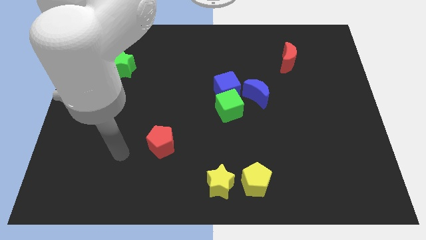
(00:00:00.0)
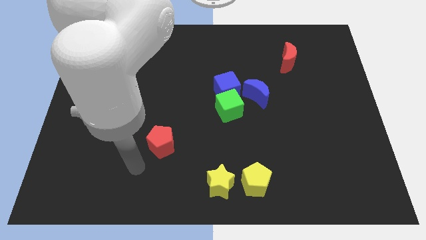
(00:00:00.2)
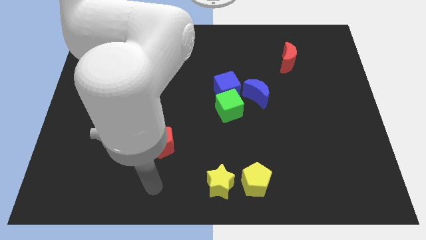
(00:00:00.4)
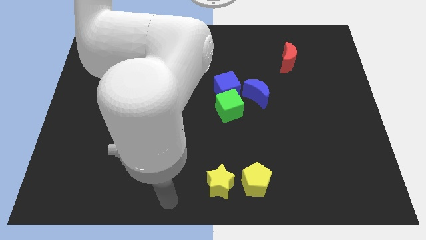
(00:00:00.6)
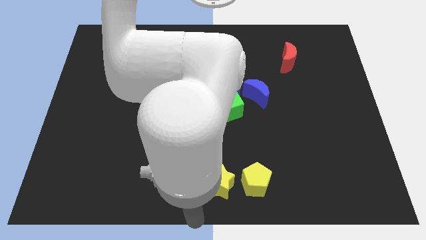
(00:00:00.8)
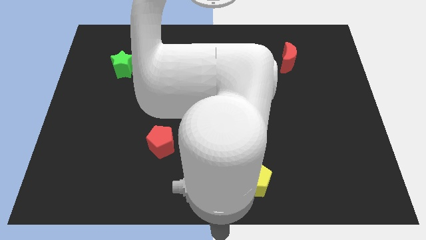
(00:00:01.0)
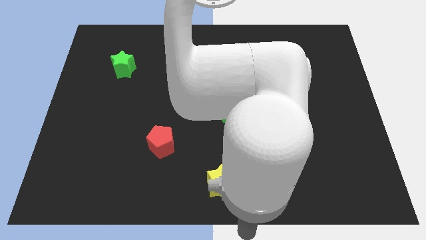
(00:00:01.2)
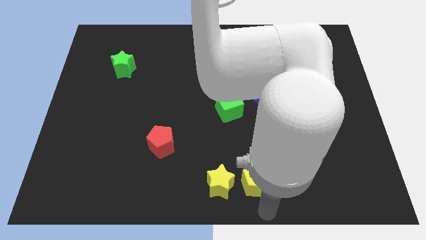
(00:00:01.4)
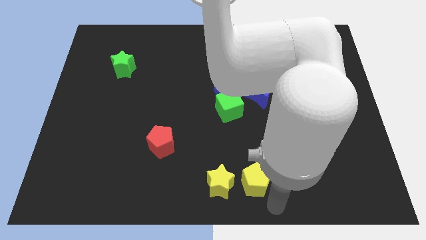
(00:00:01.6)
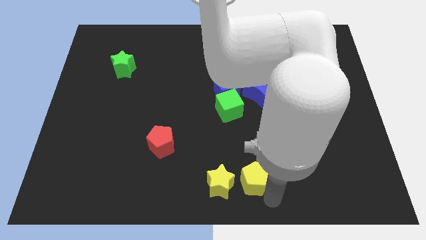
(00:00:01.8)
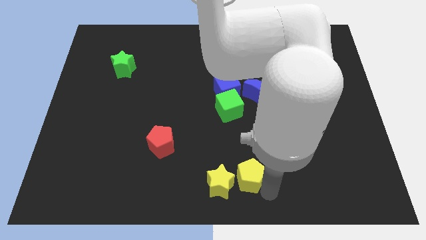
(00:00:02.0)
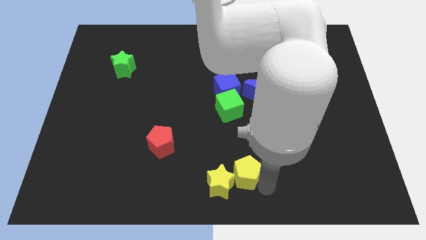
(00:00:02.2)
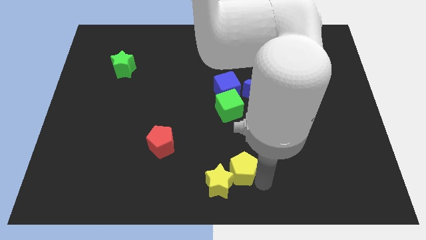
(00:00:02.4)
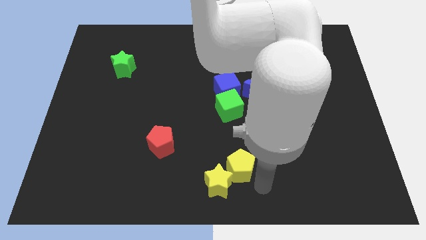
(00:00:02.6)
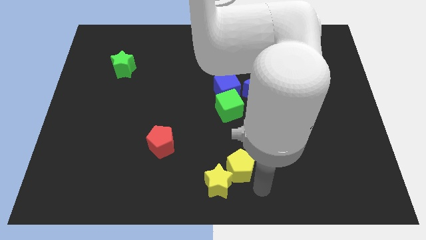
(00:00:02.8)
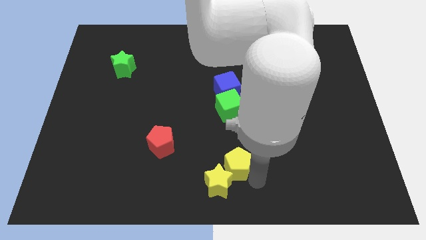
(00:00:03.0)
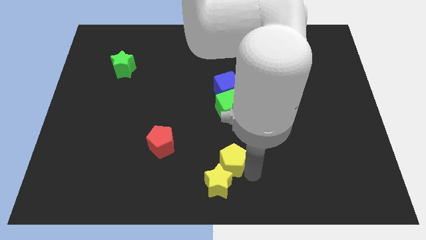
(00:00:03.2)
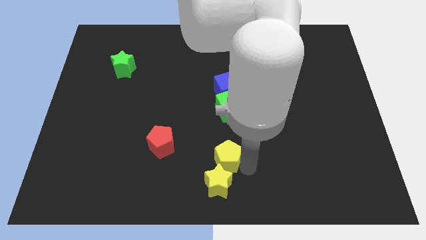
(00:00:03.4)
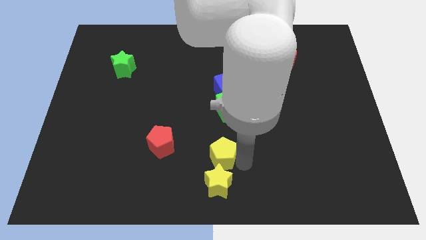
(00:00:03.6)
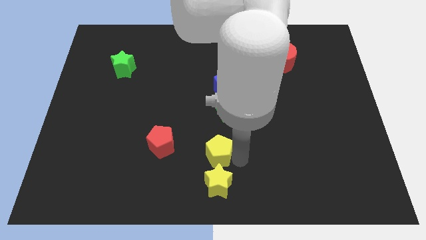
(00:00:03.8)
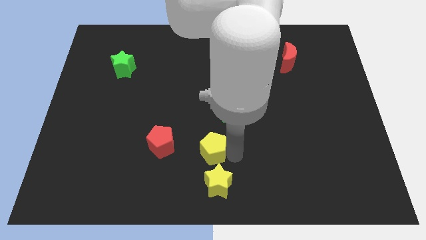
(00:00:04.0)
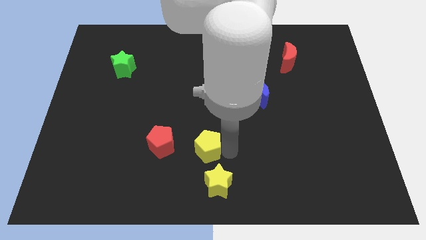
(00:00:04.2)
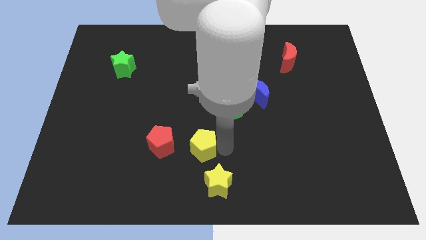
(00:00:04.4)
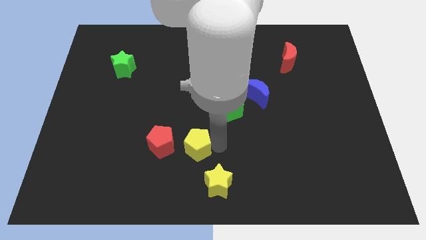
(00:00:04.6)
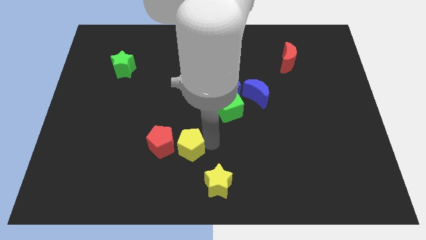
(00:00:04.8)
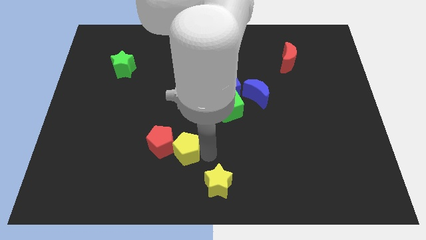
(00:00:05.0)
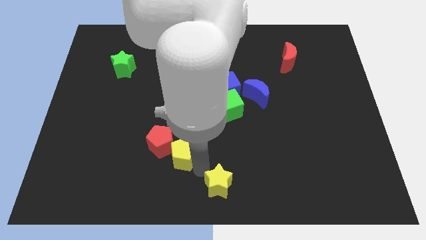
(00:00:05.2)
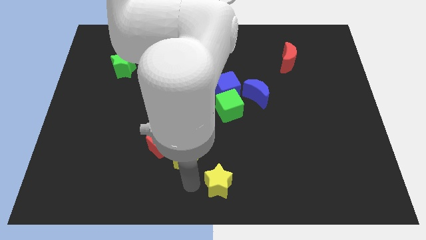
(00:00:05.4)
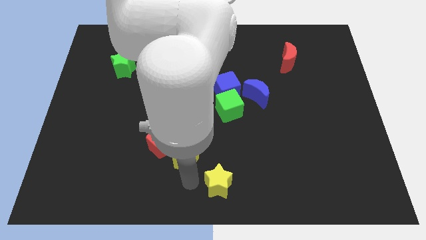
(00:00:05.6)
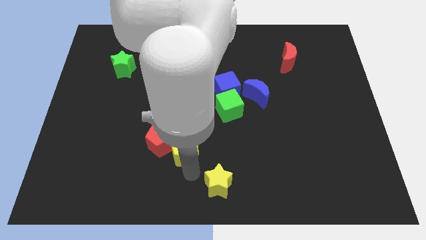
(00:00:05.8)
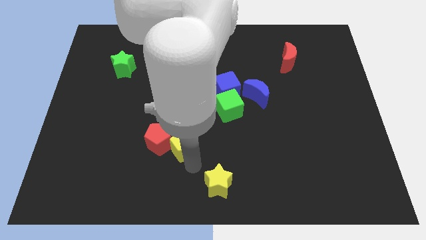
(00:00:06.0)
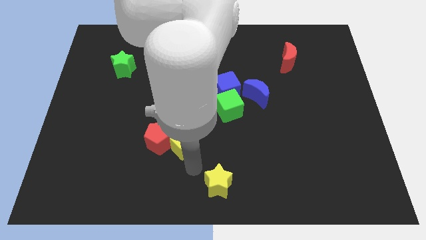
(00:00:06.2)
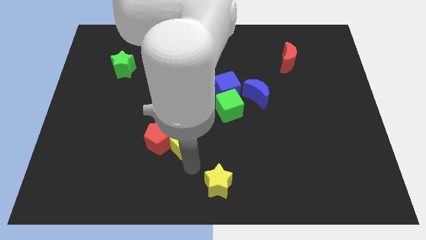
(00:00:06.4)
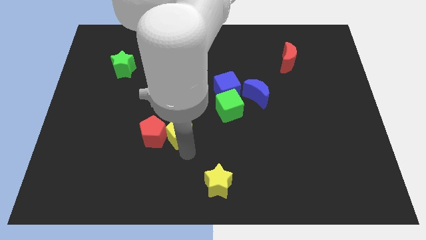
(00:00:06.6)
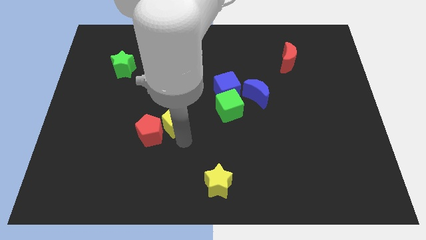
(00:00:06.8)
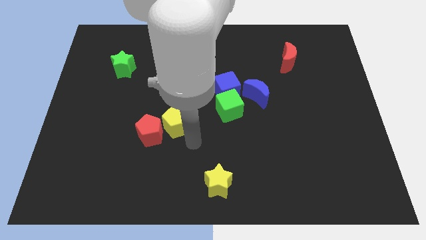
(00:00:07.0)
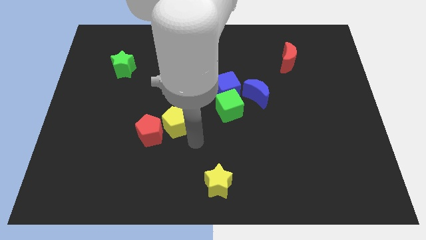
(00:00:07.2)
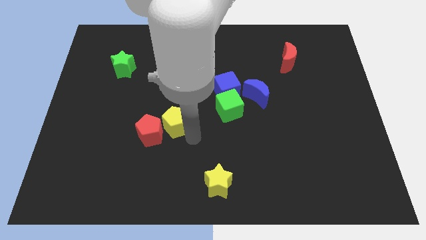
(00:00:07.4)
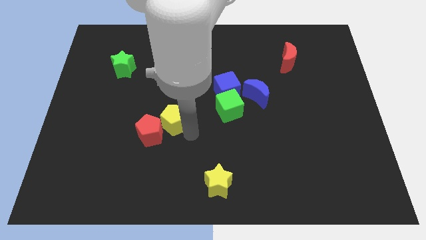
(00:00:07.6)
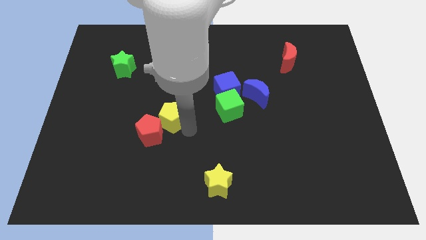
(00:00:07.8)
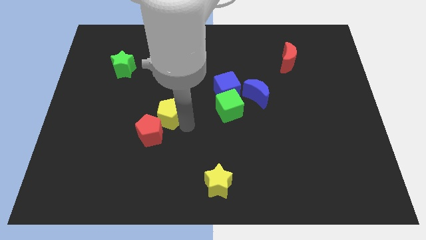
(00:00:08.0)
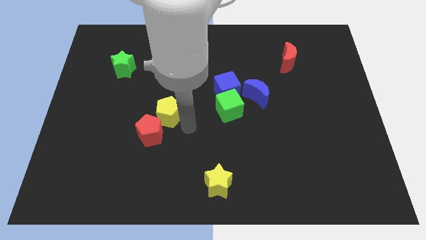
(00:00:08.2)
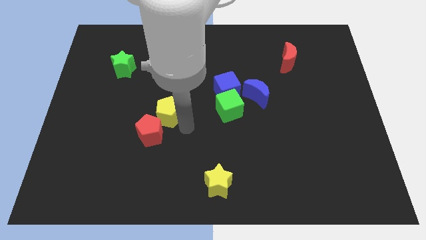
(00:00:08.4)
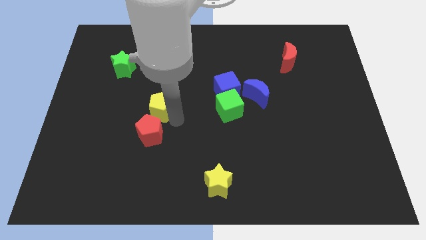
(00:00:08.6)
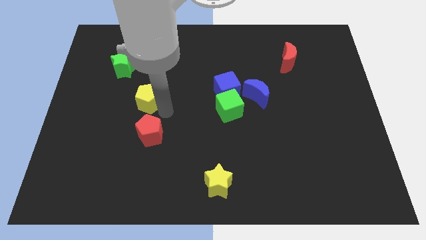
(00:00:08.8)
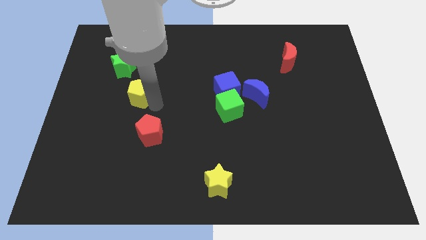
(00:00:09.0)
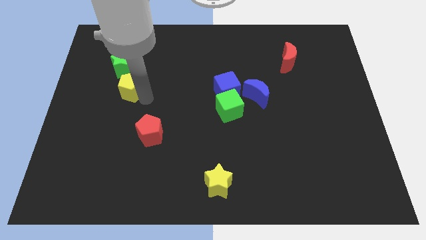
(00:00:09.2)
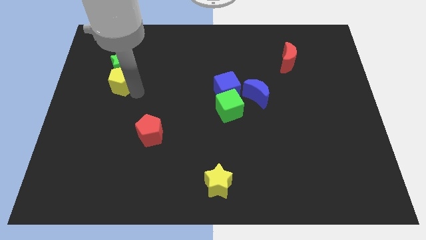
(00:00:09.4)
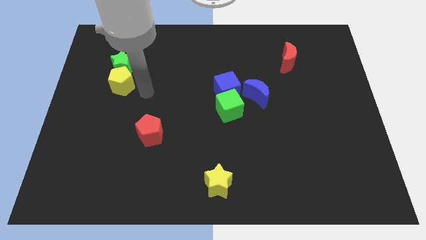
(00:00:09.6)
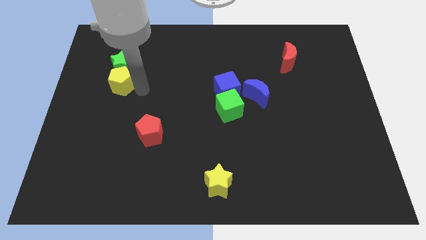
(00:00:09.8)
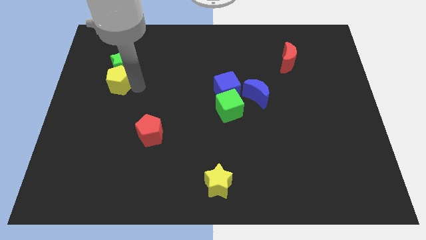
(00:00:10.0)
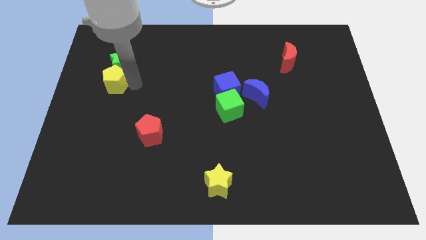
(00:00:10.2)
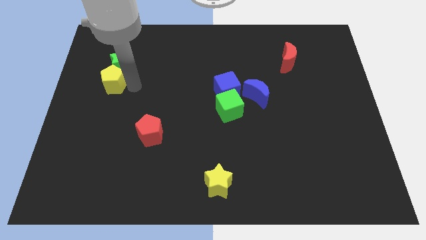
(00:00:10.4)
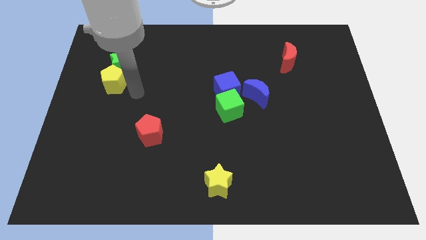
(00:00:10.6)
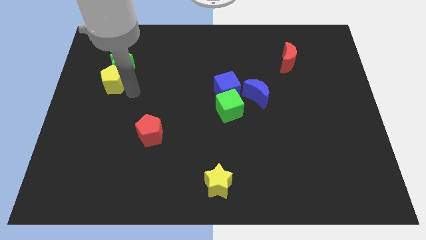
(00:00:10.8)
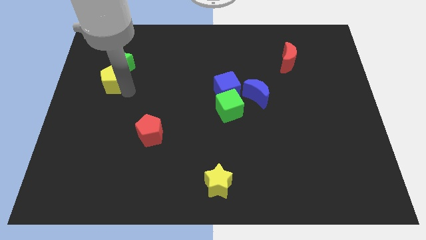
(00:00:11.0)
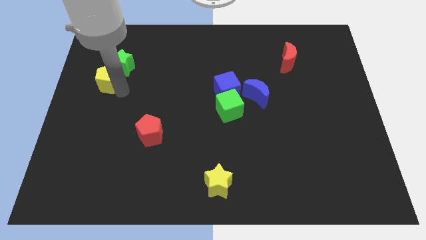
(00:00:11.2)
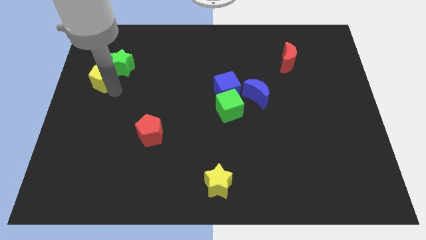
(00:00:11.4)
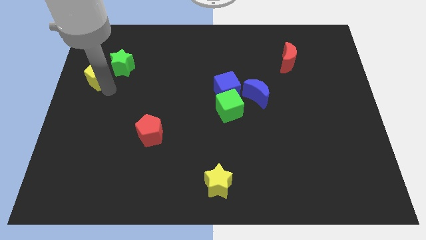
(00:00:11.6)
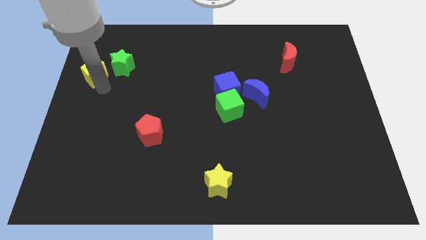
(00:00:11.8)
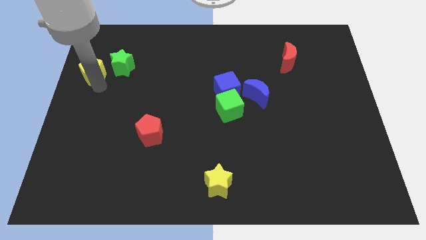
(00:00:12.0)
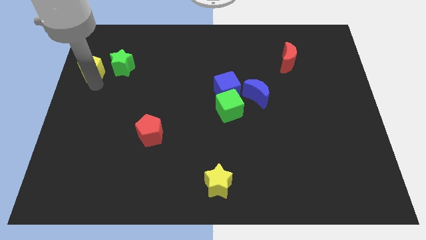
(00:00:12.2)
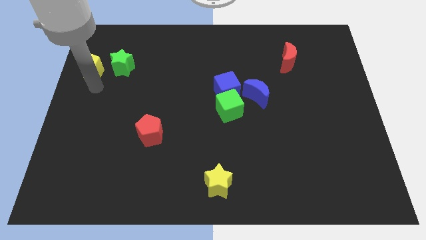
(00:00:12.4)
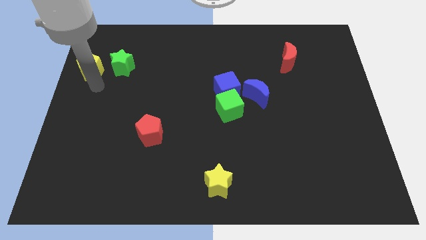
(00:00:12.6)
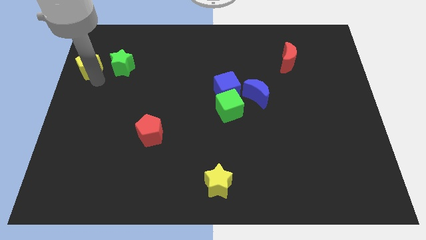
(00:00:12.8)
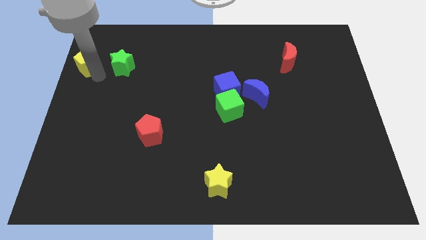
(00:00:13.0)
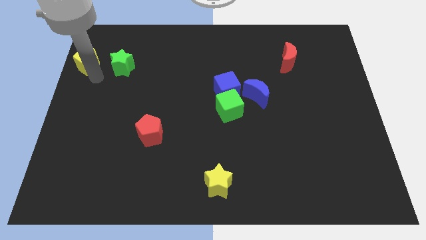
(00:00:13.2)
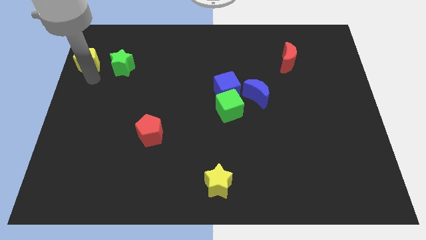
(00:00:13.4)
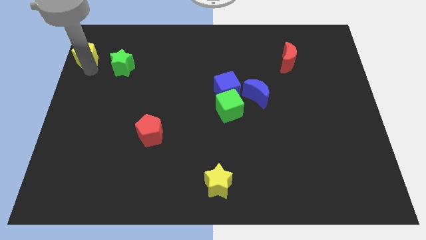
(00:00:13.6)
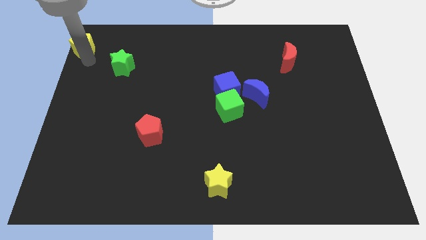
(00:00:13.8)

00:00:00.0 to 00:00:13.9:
move the yellow pentagon to the top left of the board

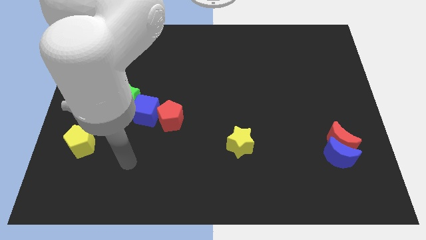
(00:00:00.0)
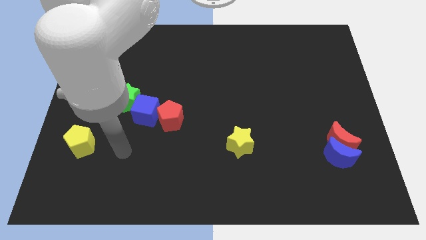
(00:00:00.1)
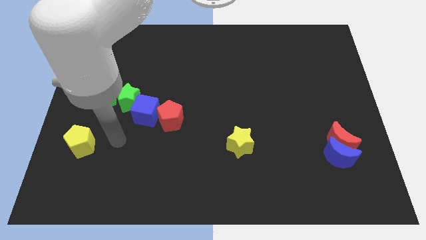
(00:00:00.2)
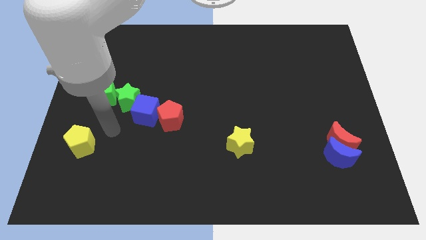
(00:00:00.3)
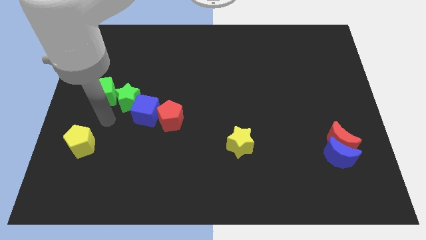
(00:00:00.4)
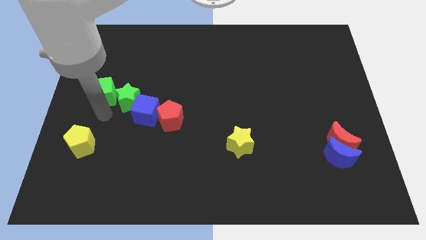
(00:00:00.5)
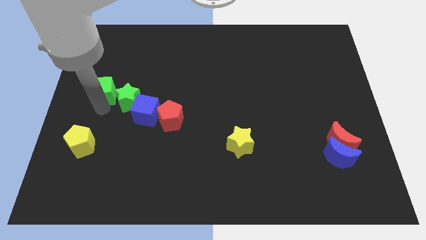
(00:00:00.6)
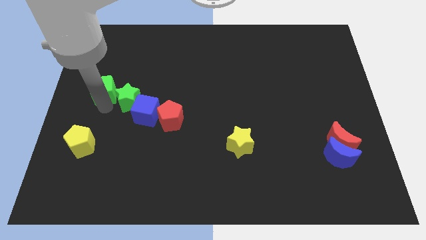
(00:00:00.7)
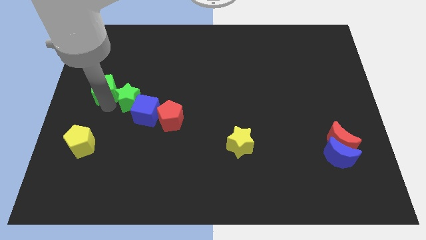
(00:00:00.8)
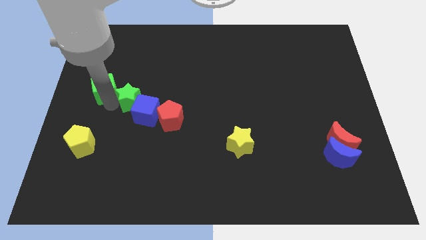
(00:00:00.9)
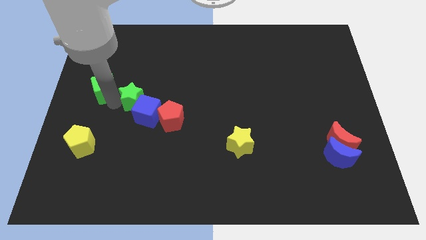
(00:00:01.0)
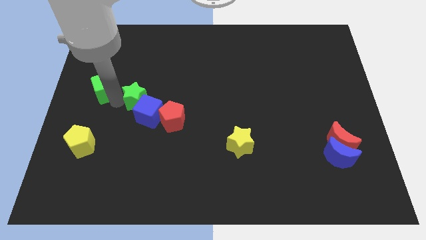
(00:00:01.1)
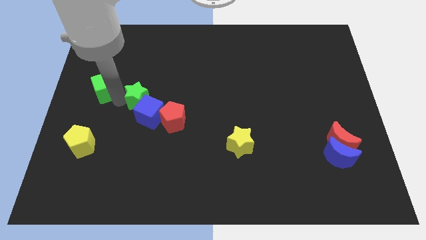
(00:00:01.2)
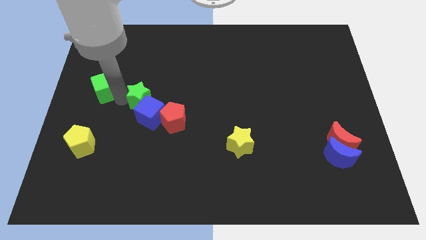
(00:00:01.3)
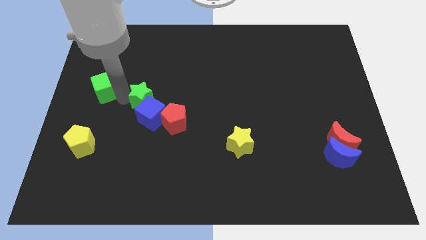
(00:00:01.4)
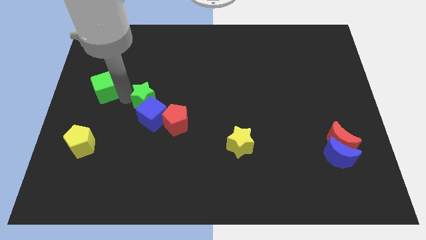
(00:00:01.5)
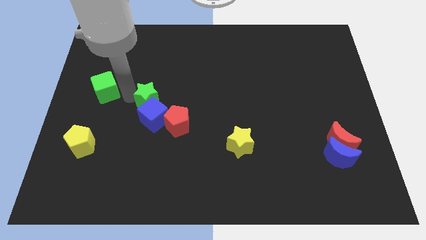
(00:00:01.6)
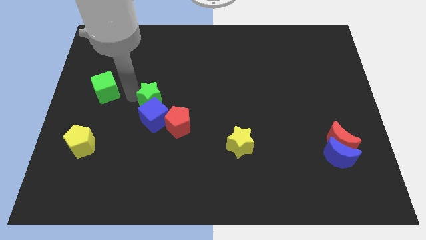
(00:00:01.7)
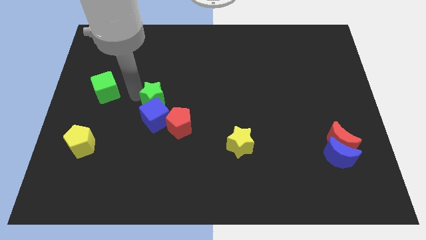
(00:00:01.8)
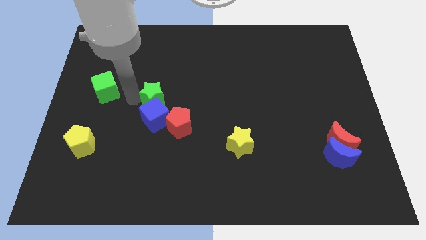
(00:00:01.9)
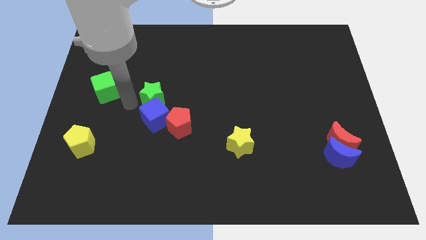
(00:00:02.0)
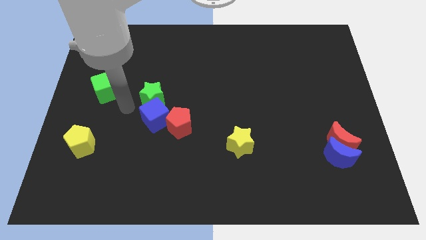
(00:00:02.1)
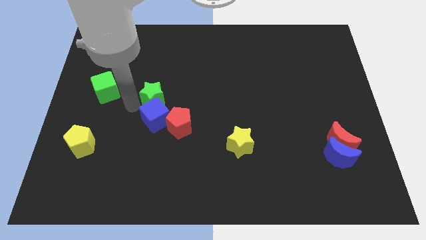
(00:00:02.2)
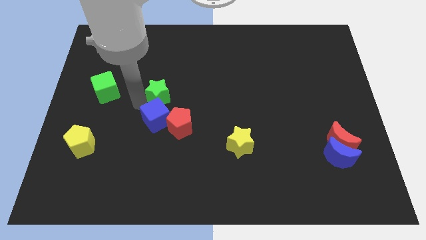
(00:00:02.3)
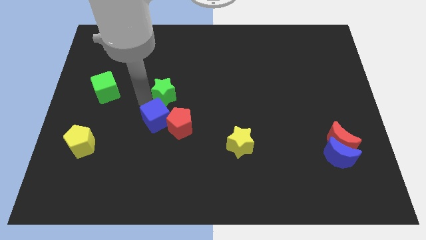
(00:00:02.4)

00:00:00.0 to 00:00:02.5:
push the green star to the center
